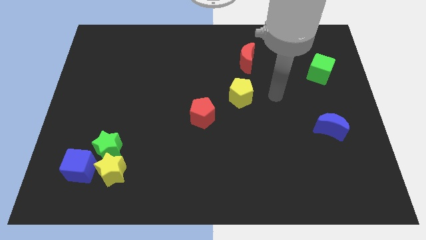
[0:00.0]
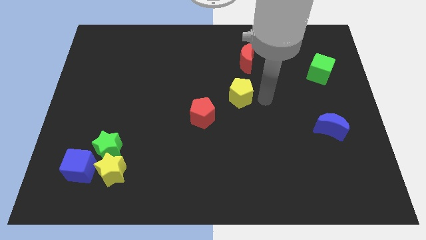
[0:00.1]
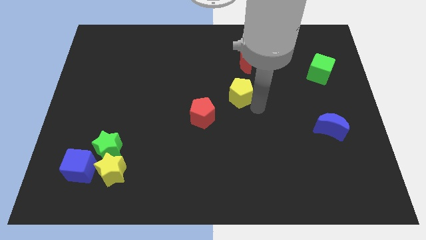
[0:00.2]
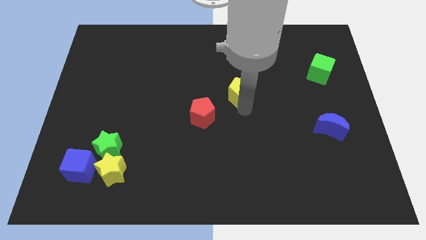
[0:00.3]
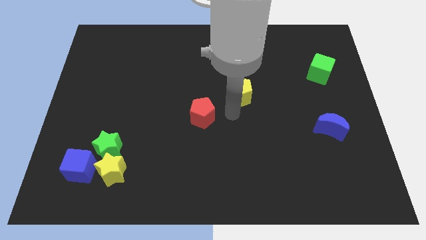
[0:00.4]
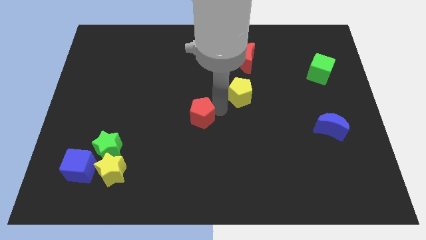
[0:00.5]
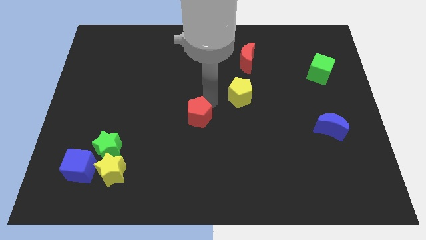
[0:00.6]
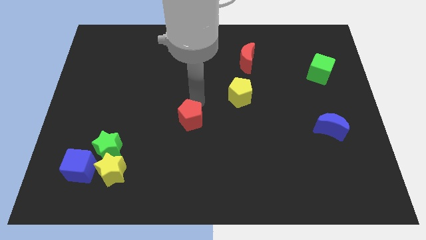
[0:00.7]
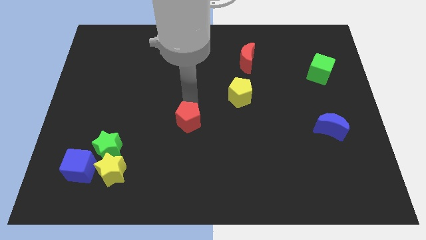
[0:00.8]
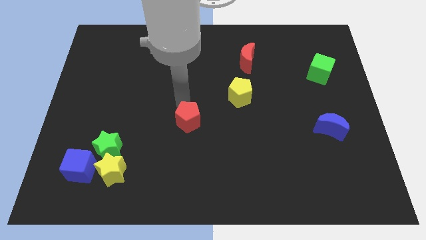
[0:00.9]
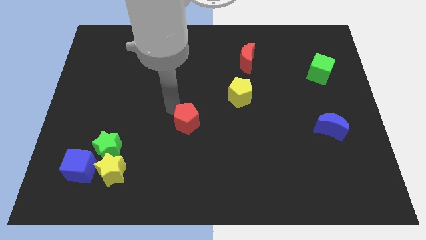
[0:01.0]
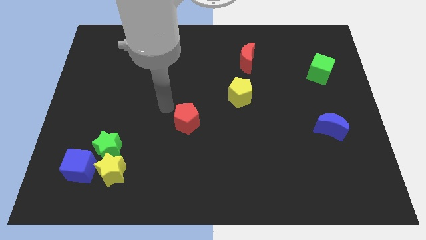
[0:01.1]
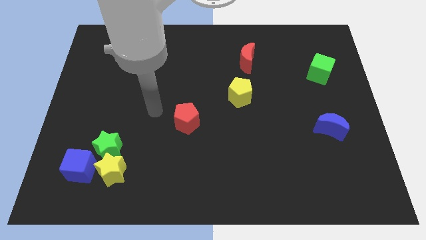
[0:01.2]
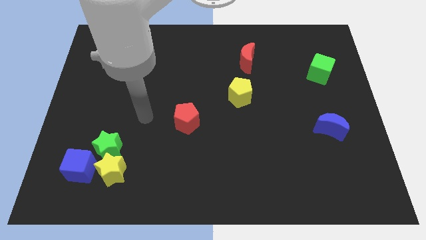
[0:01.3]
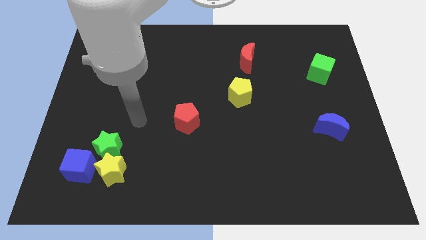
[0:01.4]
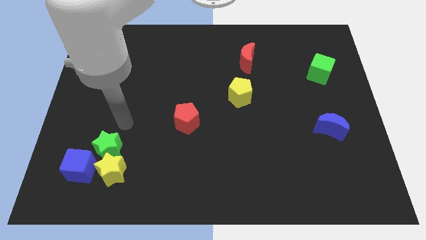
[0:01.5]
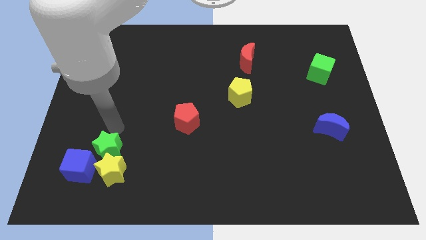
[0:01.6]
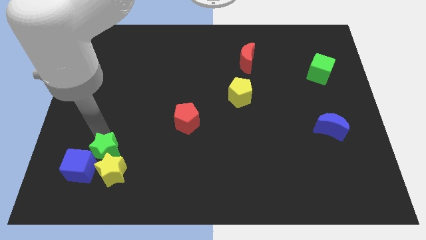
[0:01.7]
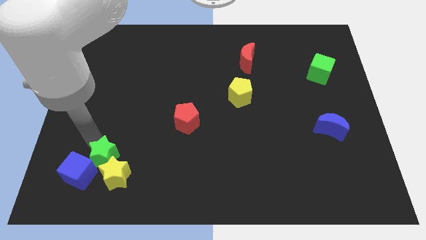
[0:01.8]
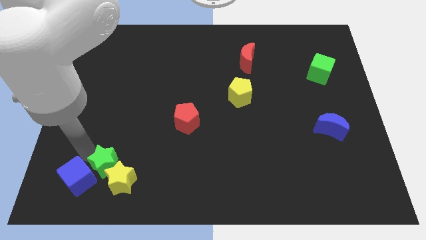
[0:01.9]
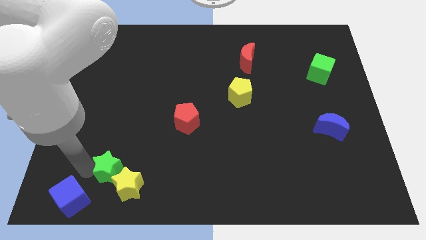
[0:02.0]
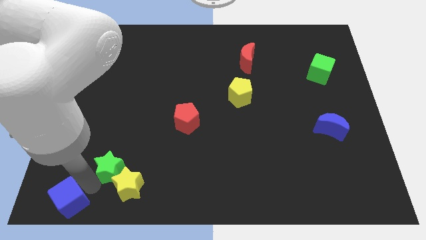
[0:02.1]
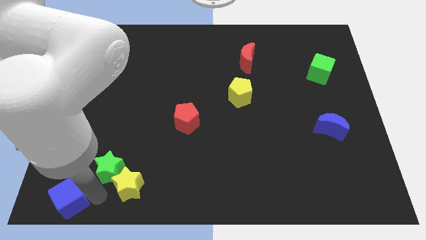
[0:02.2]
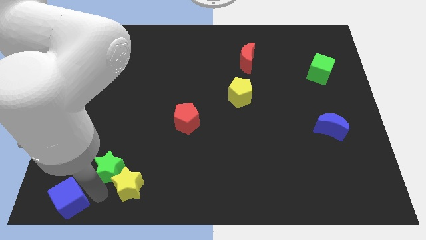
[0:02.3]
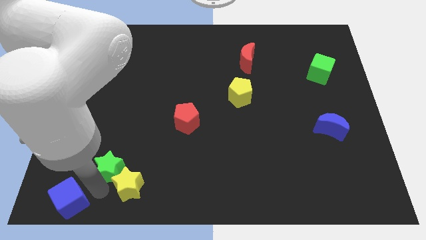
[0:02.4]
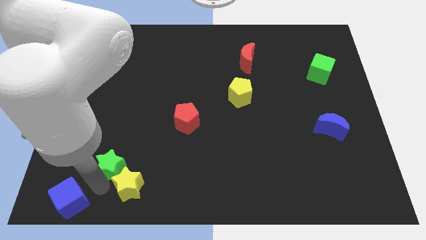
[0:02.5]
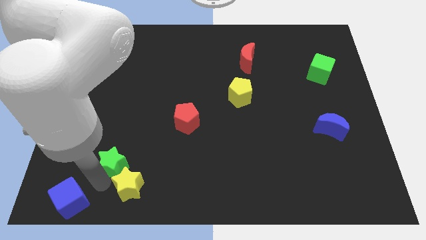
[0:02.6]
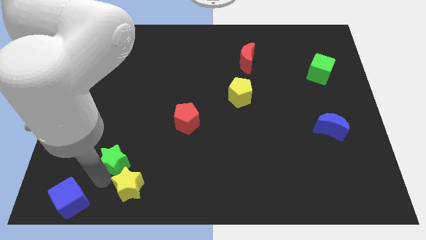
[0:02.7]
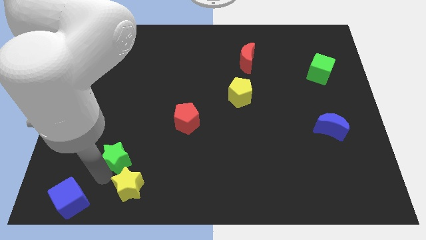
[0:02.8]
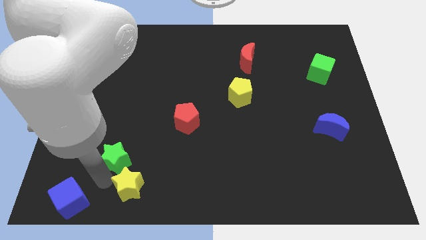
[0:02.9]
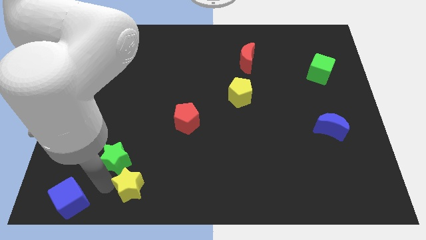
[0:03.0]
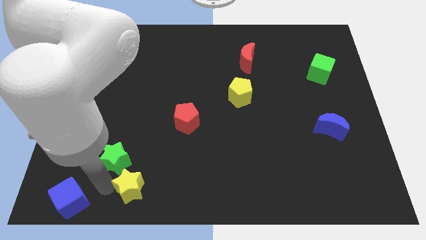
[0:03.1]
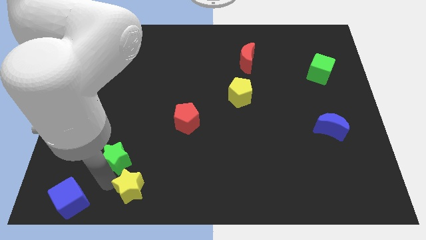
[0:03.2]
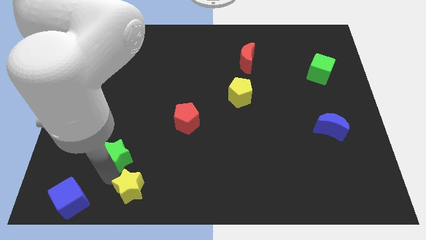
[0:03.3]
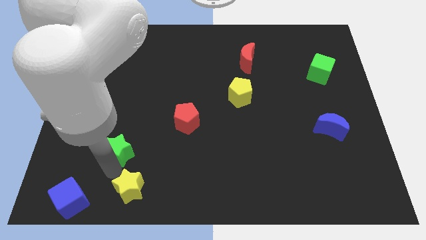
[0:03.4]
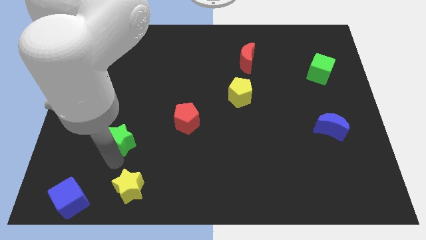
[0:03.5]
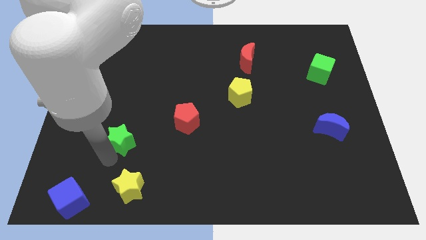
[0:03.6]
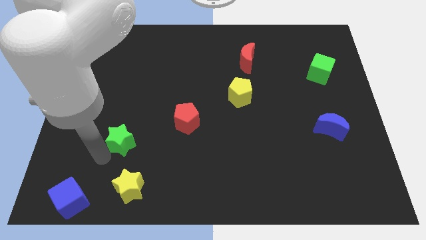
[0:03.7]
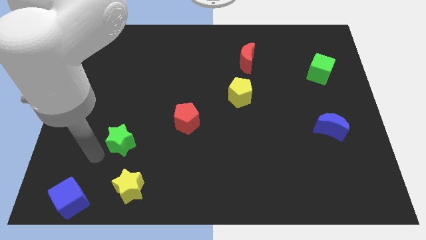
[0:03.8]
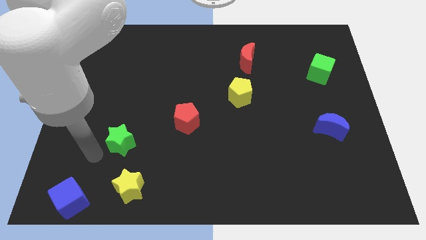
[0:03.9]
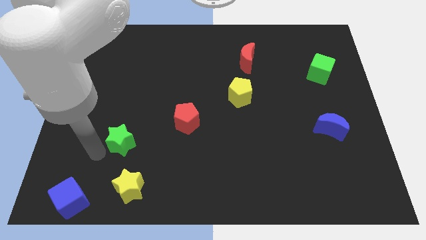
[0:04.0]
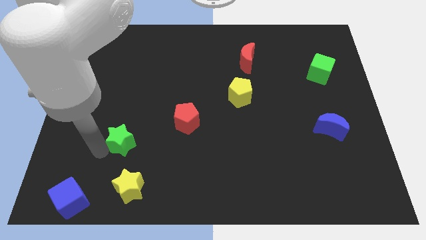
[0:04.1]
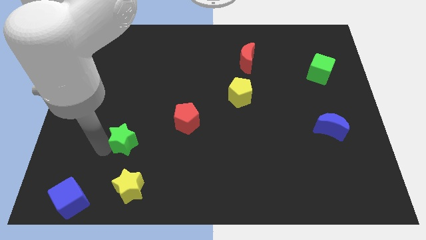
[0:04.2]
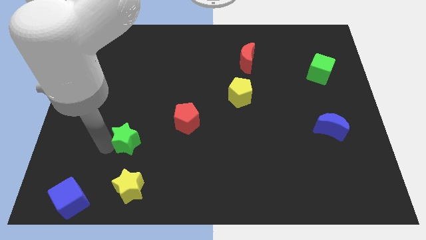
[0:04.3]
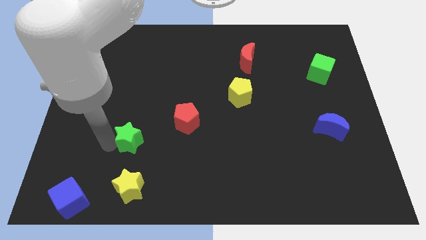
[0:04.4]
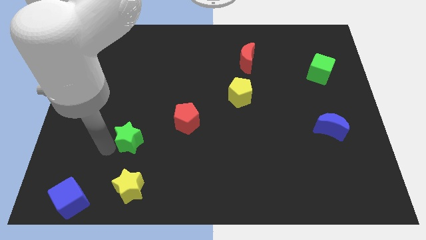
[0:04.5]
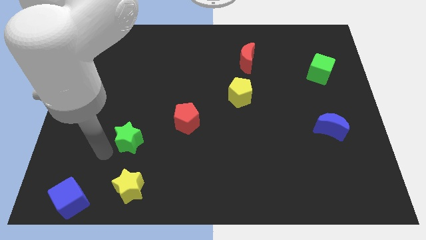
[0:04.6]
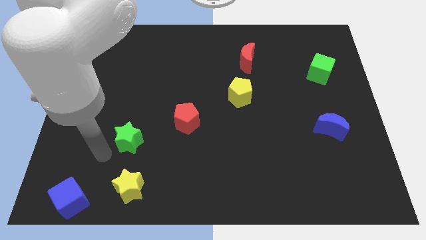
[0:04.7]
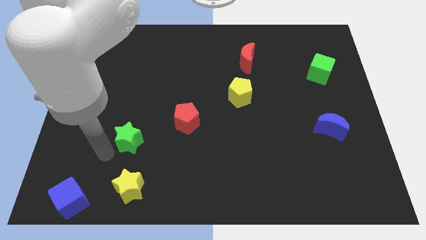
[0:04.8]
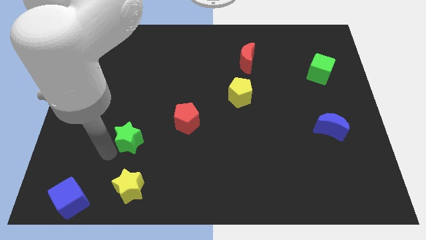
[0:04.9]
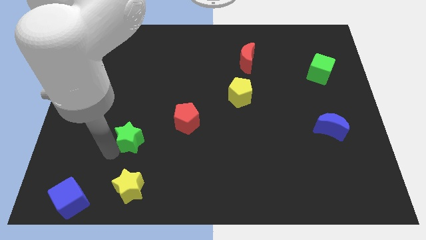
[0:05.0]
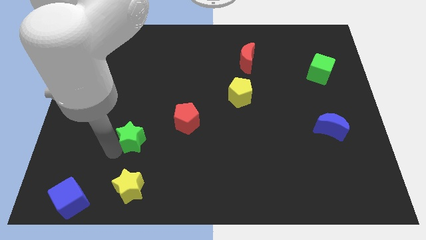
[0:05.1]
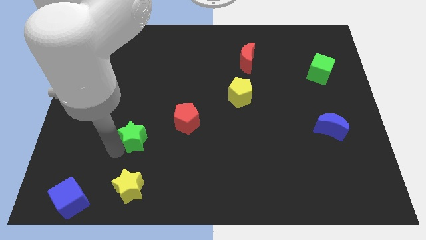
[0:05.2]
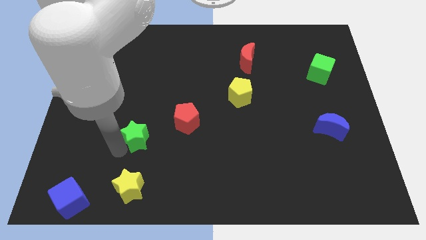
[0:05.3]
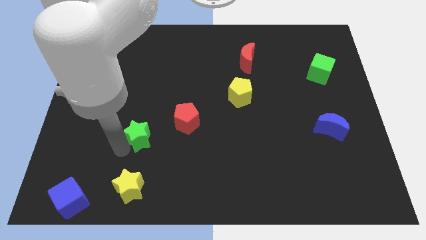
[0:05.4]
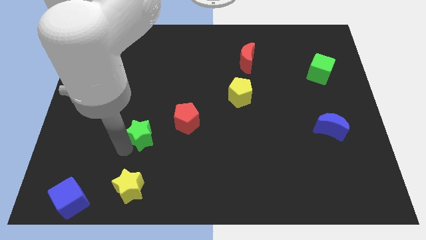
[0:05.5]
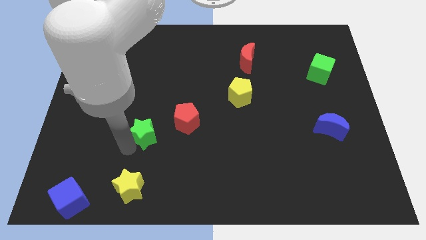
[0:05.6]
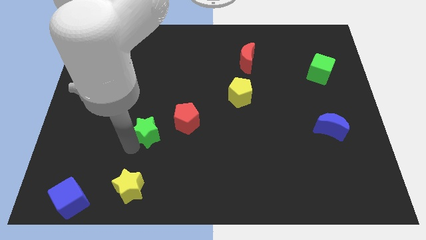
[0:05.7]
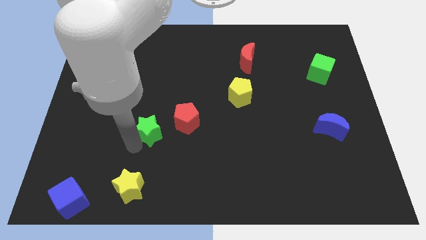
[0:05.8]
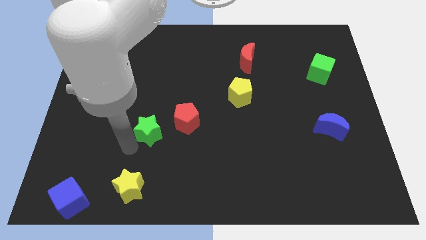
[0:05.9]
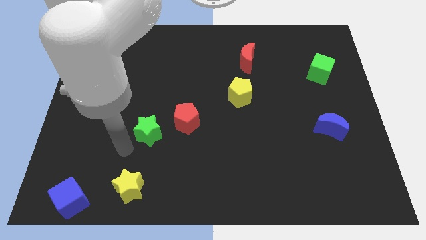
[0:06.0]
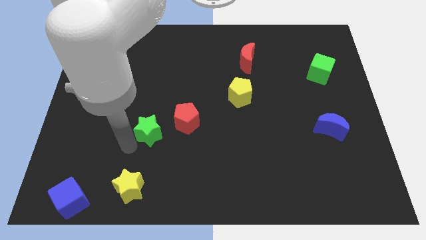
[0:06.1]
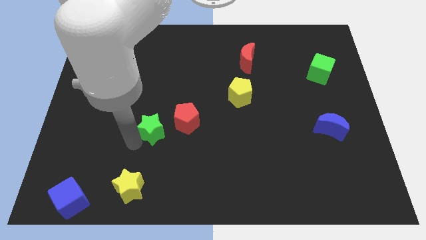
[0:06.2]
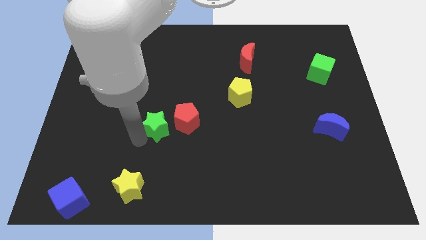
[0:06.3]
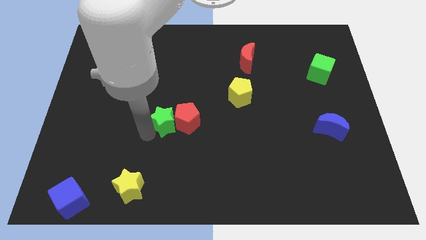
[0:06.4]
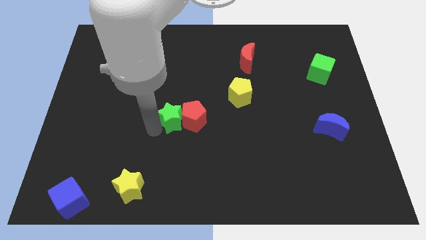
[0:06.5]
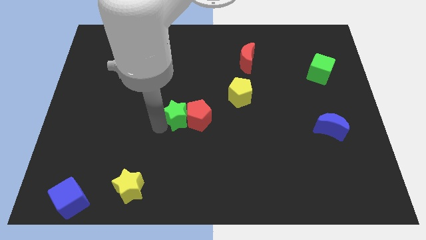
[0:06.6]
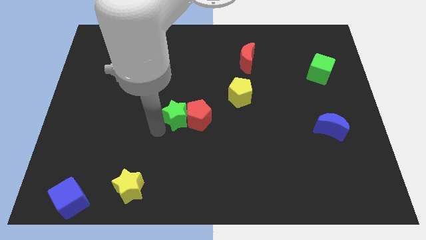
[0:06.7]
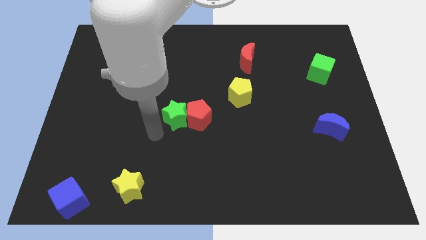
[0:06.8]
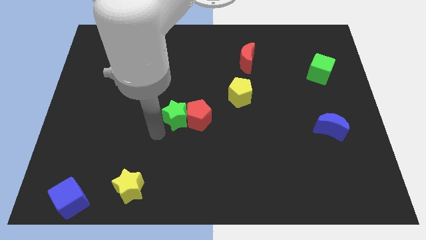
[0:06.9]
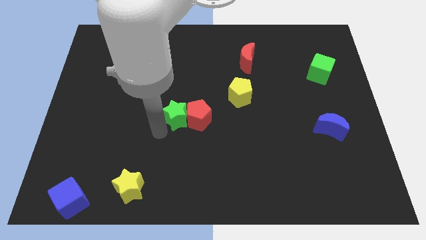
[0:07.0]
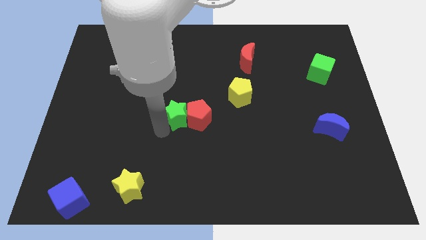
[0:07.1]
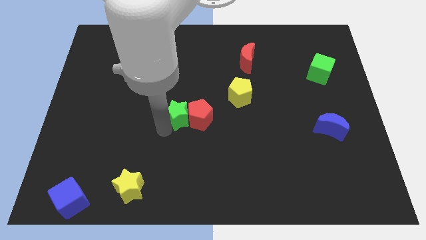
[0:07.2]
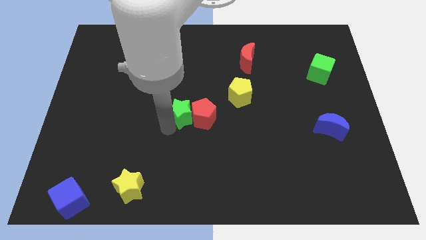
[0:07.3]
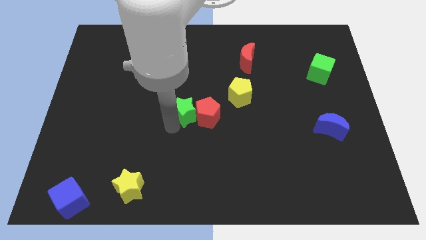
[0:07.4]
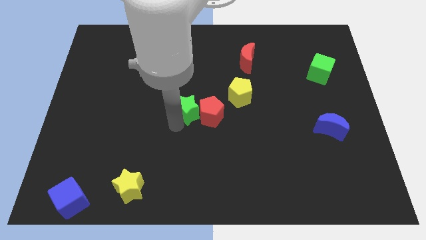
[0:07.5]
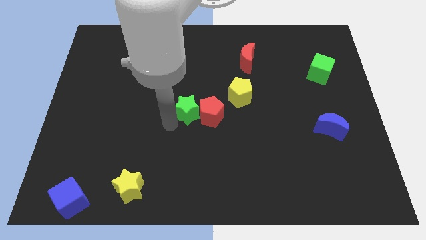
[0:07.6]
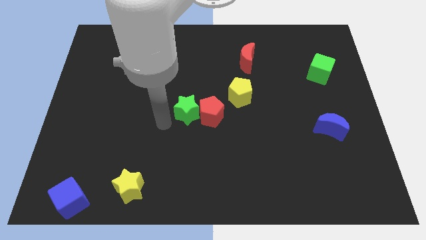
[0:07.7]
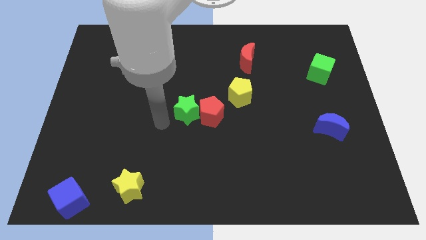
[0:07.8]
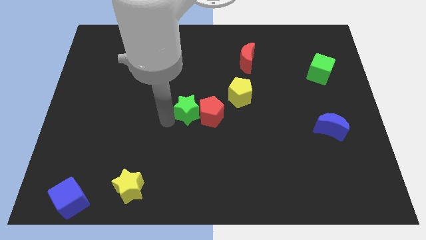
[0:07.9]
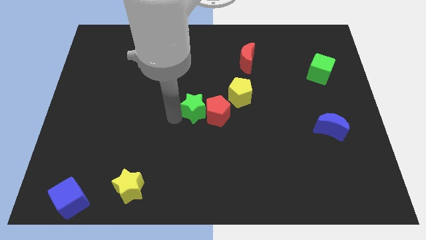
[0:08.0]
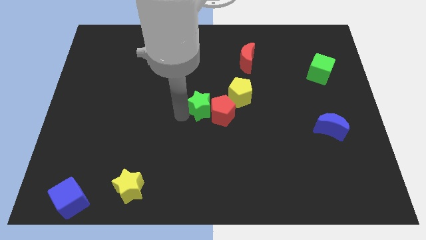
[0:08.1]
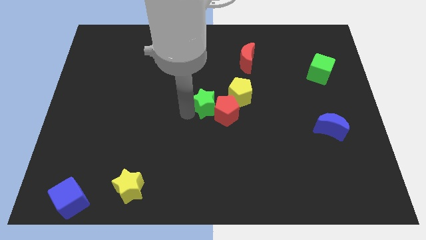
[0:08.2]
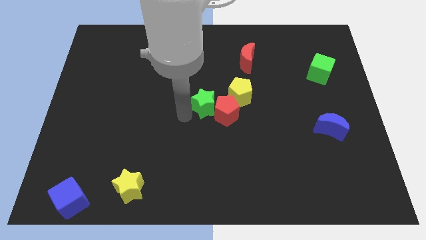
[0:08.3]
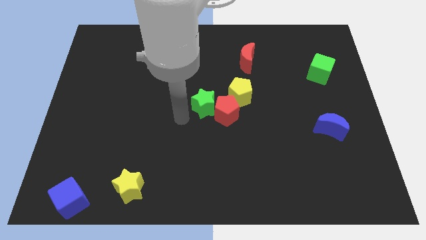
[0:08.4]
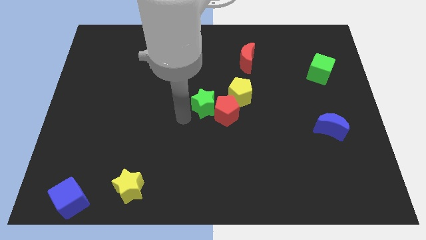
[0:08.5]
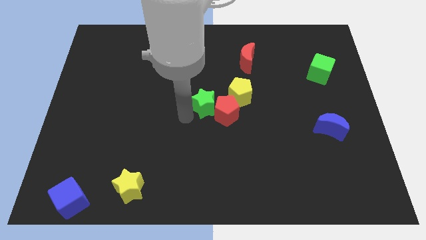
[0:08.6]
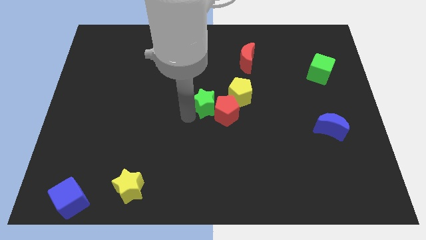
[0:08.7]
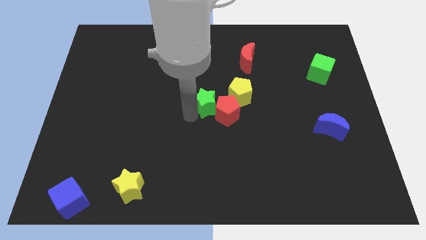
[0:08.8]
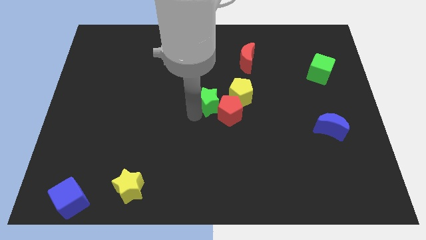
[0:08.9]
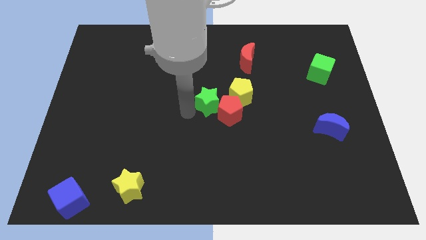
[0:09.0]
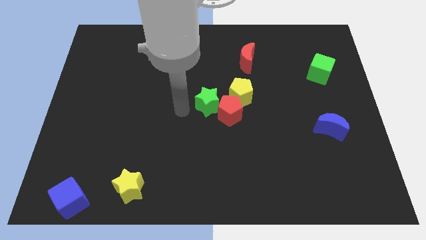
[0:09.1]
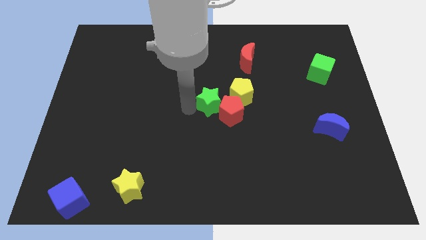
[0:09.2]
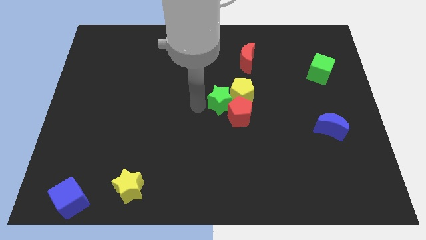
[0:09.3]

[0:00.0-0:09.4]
slide the green star close to the yellow pentagon
